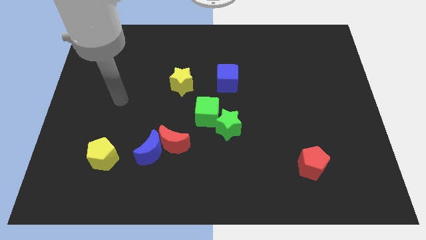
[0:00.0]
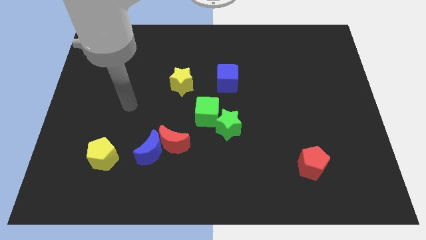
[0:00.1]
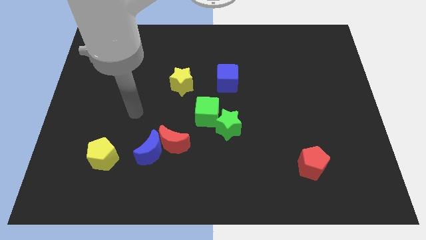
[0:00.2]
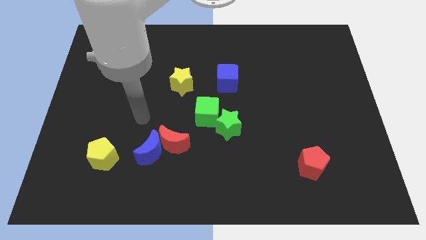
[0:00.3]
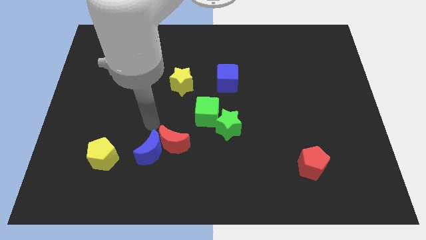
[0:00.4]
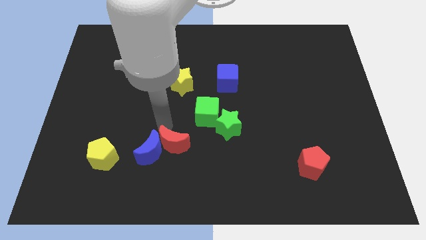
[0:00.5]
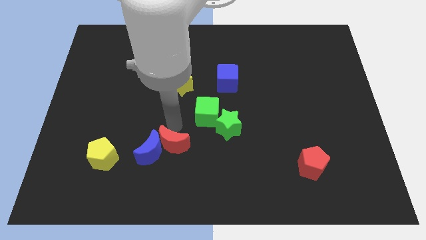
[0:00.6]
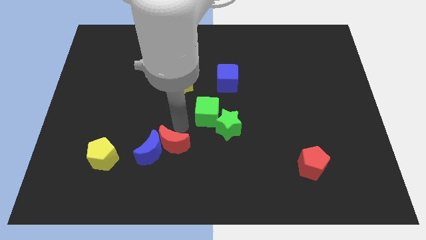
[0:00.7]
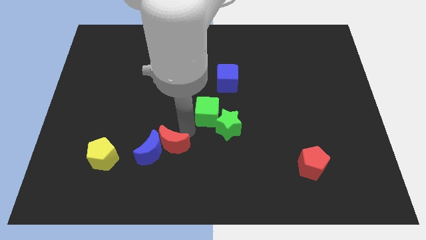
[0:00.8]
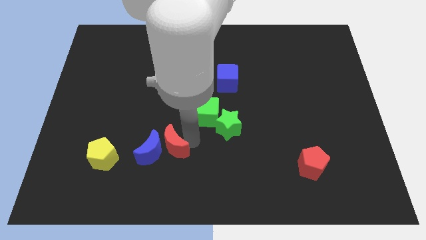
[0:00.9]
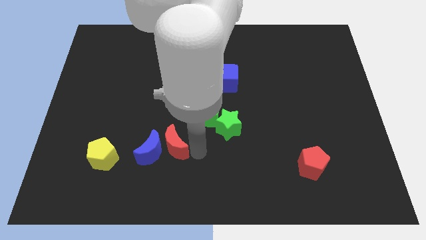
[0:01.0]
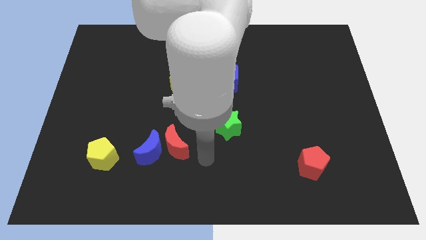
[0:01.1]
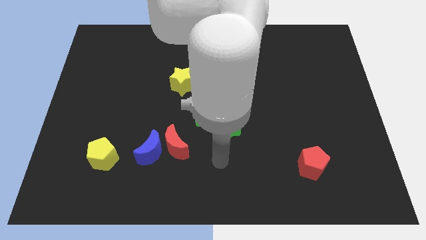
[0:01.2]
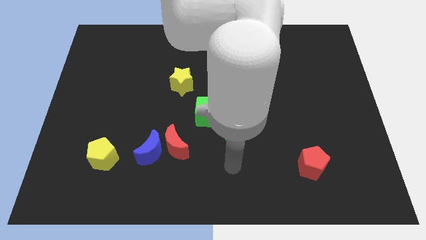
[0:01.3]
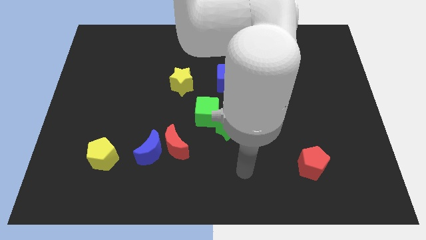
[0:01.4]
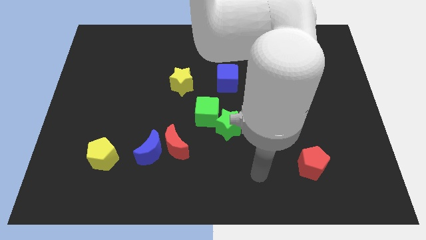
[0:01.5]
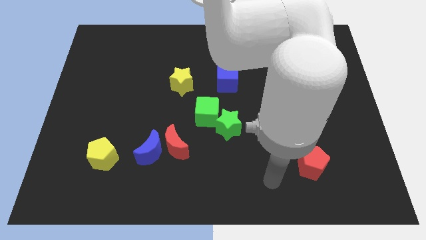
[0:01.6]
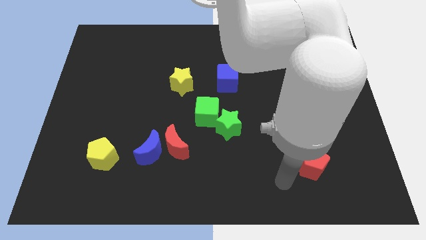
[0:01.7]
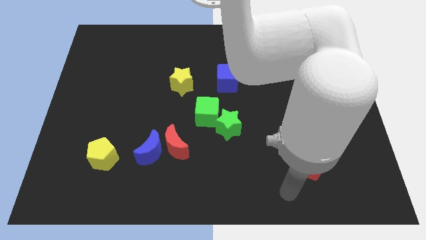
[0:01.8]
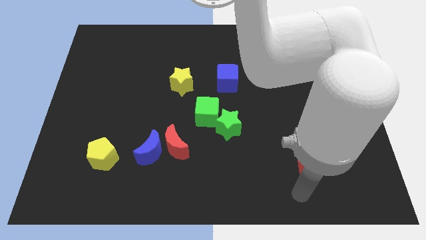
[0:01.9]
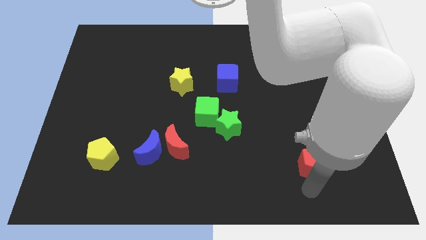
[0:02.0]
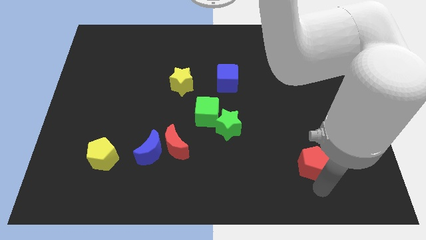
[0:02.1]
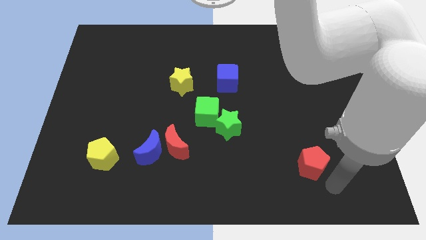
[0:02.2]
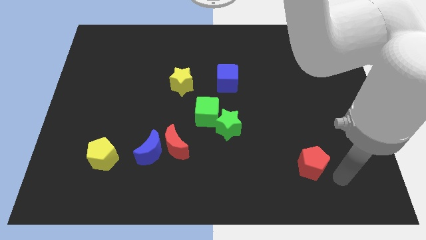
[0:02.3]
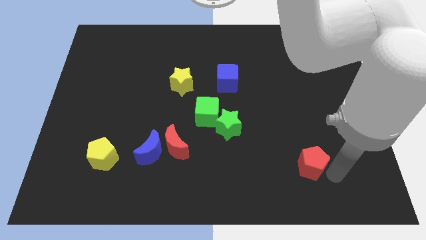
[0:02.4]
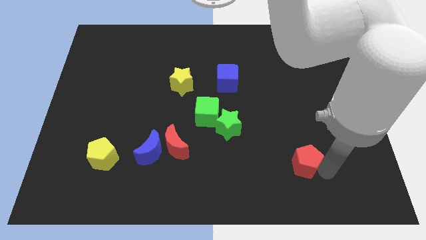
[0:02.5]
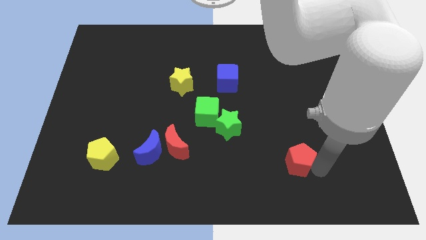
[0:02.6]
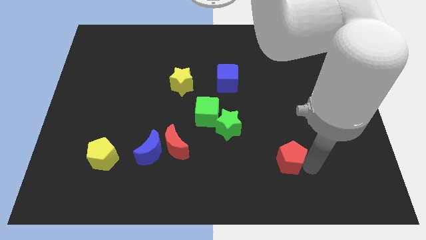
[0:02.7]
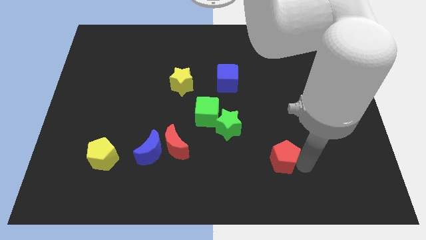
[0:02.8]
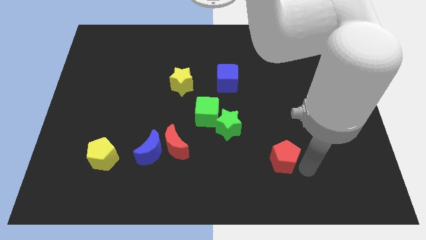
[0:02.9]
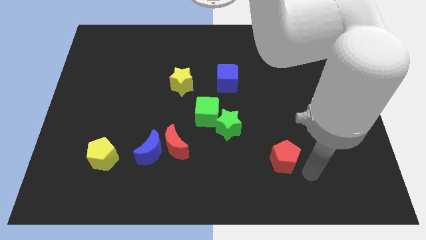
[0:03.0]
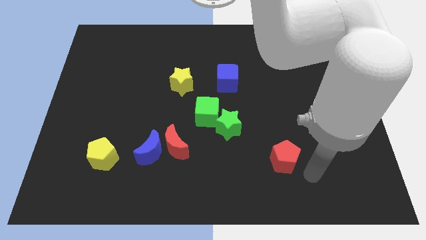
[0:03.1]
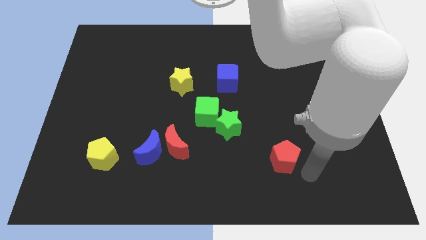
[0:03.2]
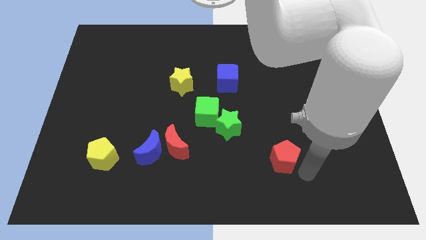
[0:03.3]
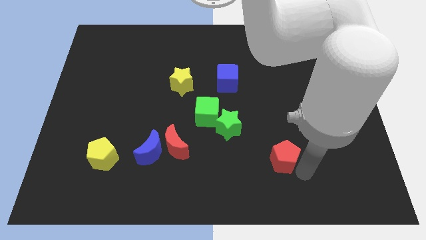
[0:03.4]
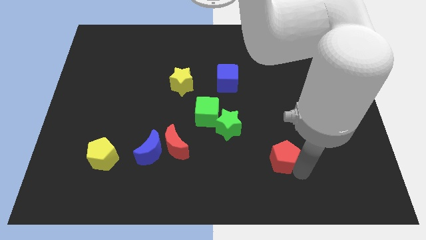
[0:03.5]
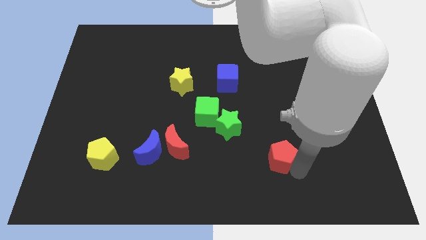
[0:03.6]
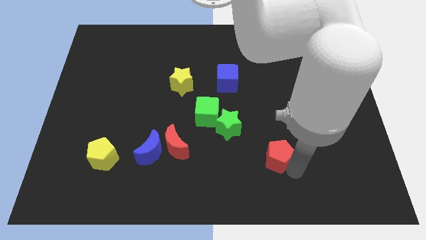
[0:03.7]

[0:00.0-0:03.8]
slide the red pentagon left a bit

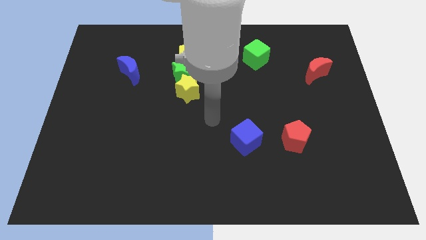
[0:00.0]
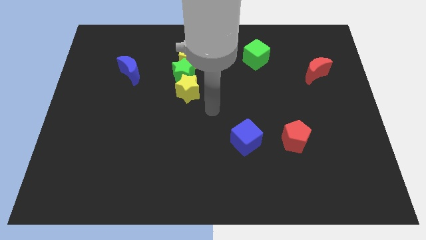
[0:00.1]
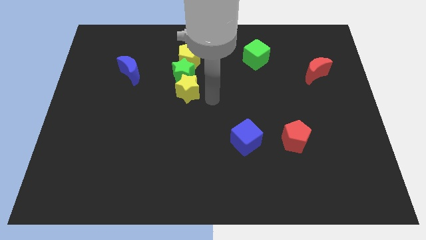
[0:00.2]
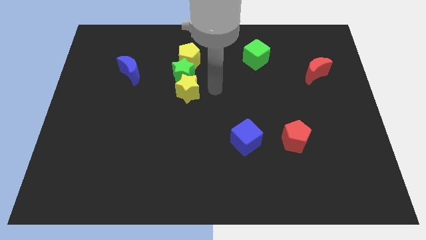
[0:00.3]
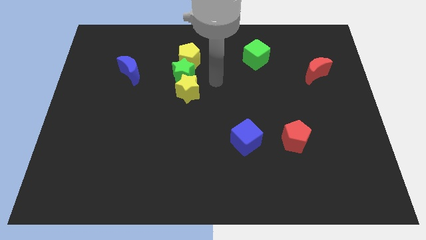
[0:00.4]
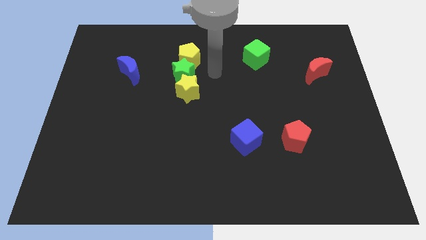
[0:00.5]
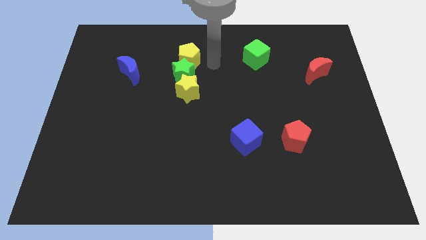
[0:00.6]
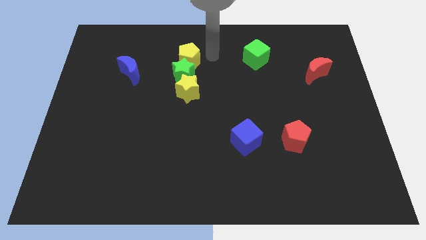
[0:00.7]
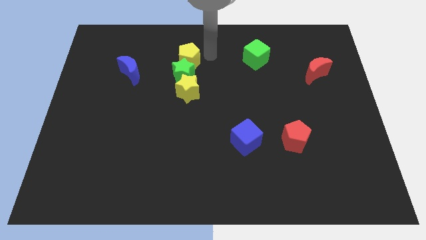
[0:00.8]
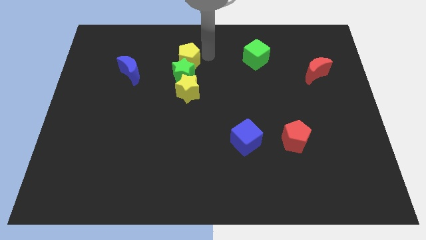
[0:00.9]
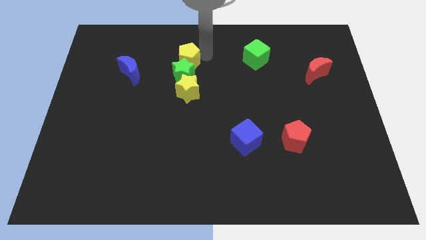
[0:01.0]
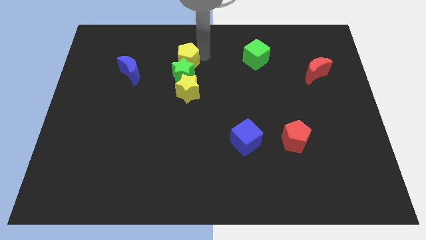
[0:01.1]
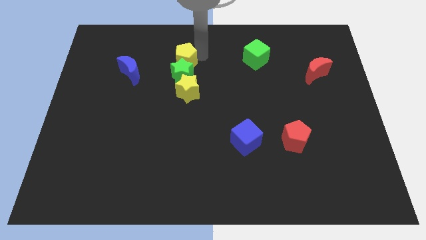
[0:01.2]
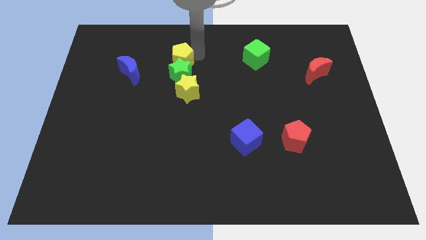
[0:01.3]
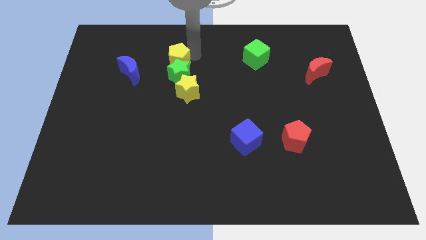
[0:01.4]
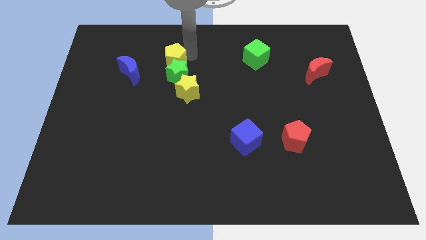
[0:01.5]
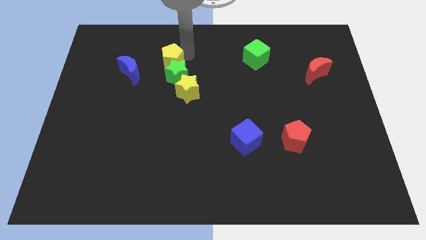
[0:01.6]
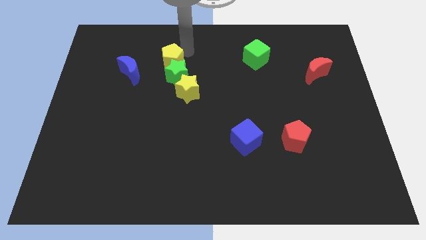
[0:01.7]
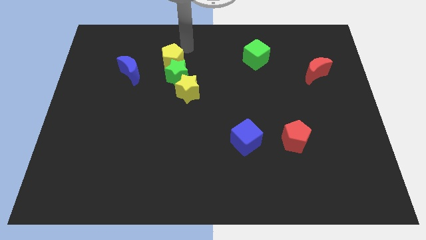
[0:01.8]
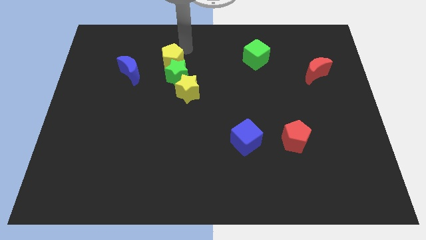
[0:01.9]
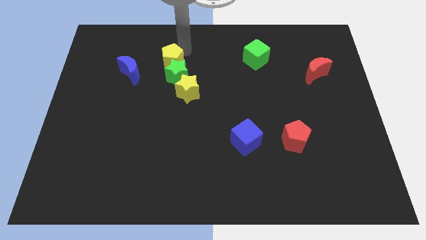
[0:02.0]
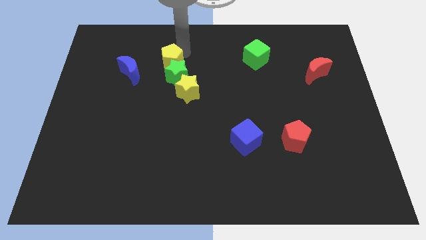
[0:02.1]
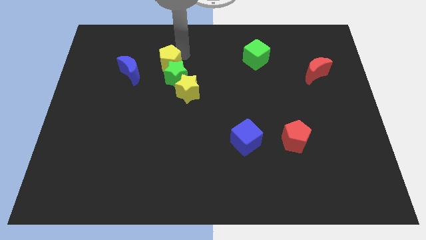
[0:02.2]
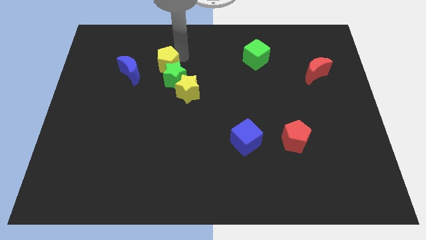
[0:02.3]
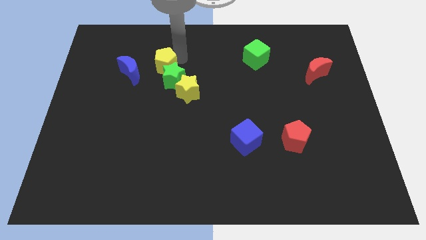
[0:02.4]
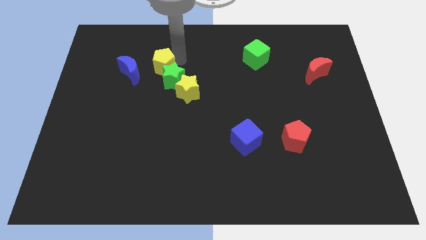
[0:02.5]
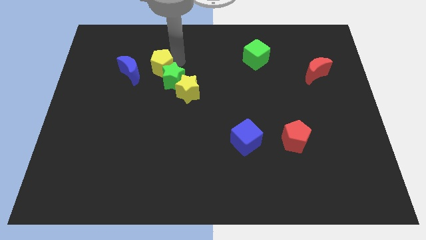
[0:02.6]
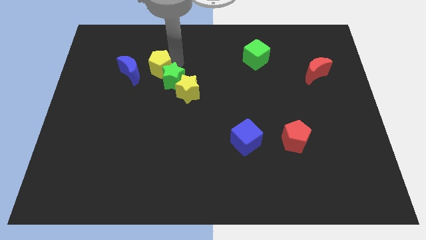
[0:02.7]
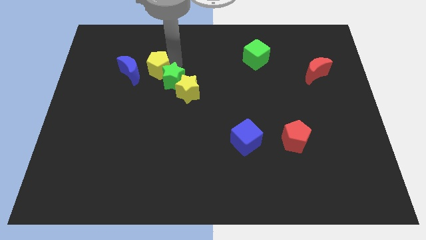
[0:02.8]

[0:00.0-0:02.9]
slightly push the yellow pentagon down and left

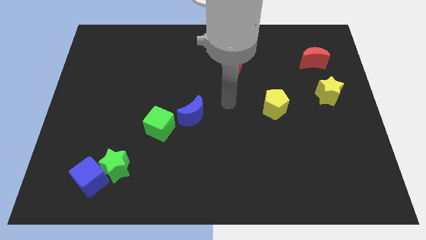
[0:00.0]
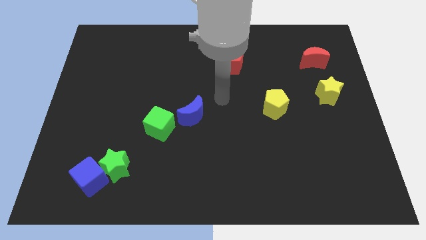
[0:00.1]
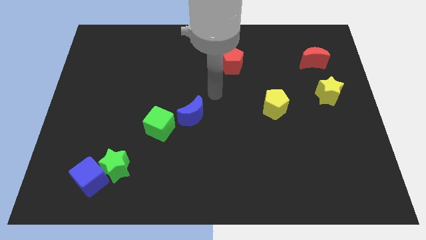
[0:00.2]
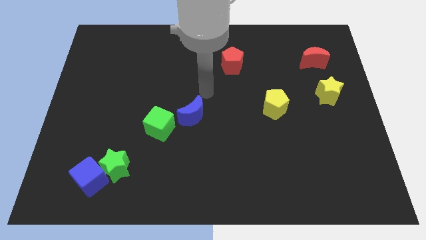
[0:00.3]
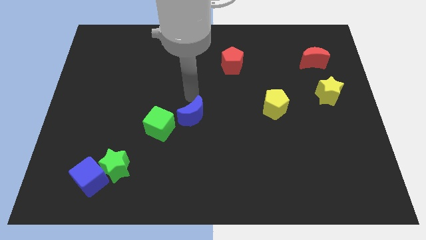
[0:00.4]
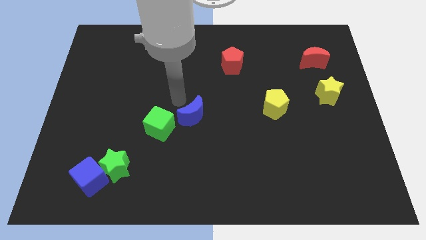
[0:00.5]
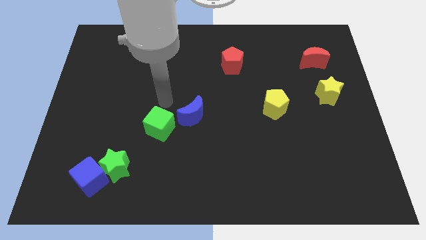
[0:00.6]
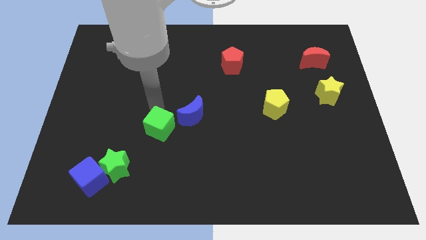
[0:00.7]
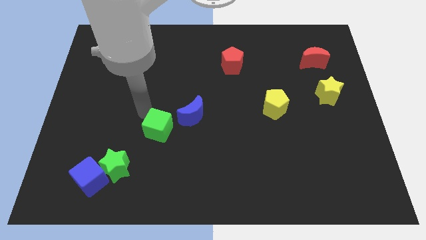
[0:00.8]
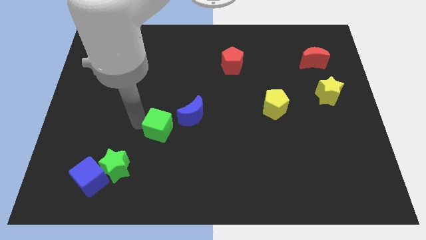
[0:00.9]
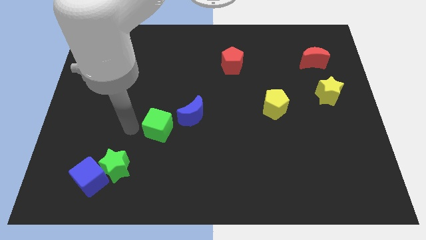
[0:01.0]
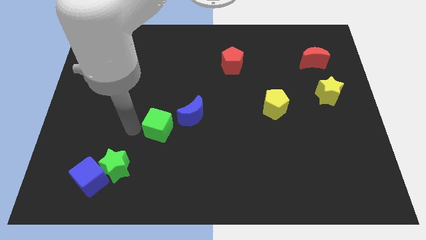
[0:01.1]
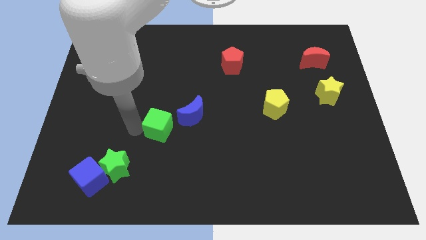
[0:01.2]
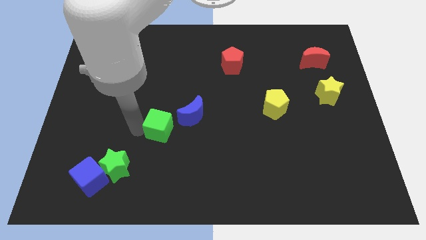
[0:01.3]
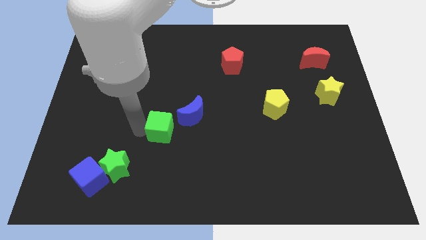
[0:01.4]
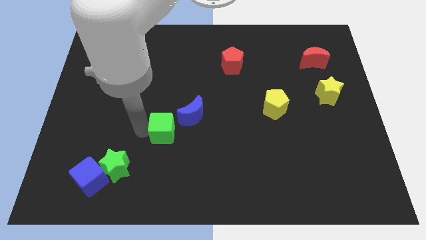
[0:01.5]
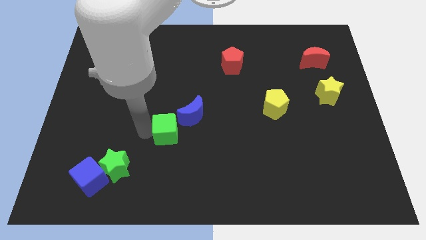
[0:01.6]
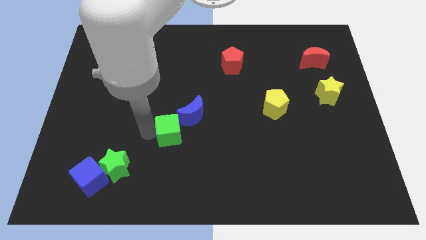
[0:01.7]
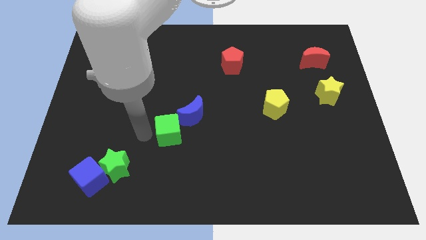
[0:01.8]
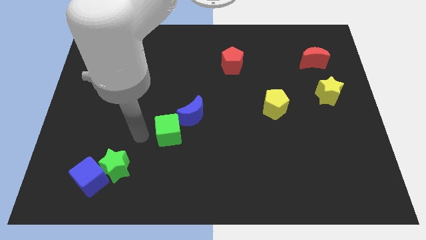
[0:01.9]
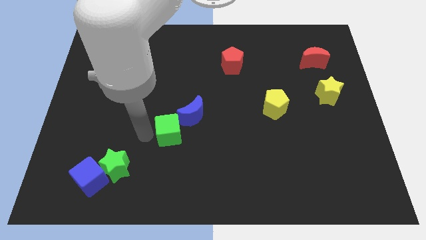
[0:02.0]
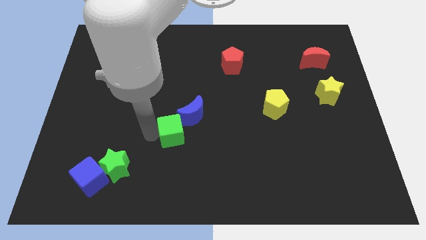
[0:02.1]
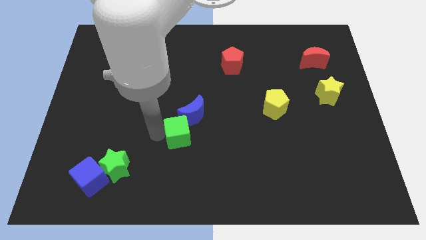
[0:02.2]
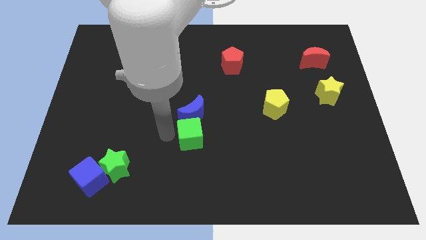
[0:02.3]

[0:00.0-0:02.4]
slide the green cube right a bit
